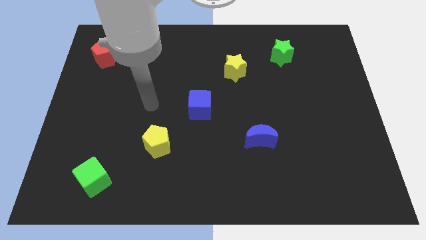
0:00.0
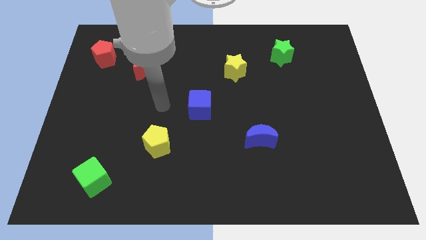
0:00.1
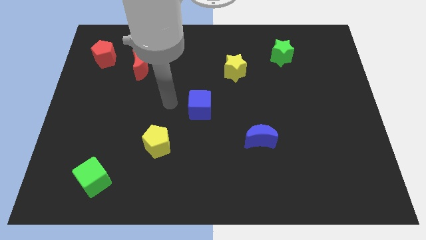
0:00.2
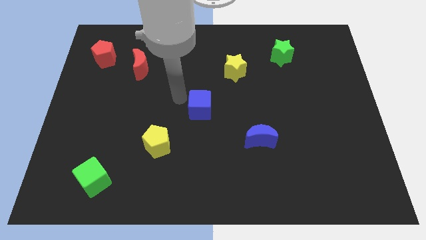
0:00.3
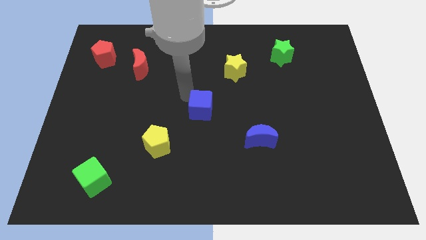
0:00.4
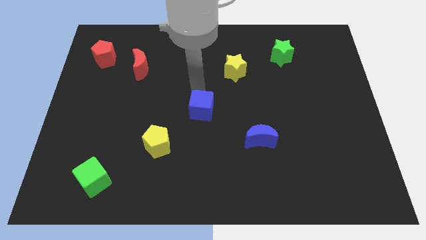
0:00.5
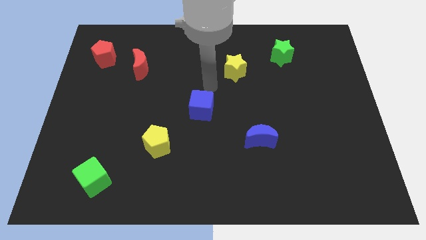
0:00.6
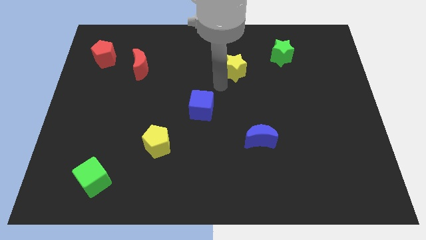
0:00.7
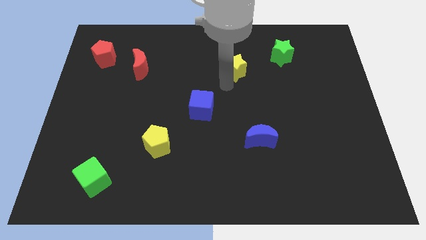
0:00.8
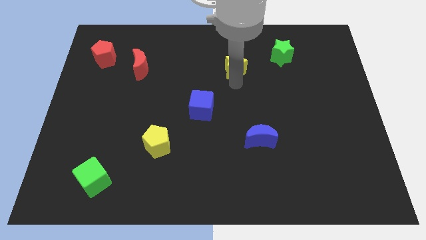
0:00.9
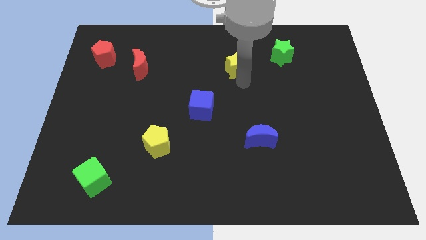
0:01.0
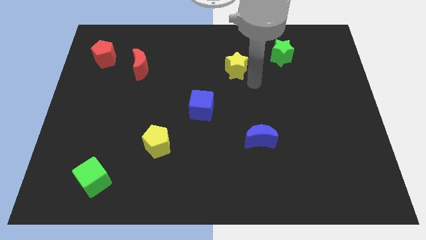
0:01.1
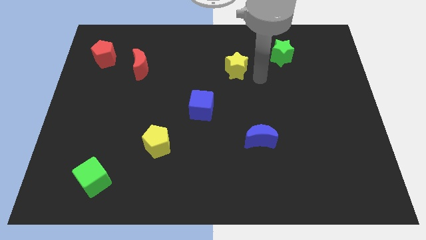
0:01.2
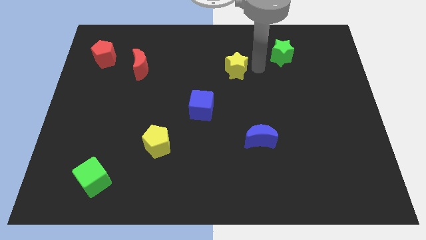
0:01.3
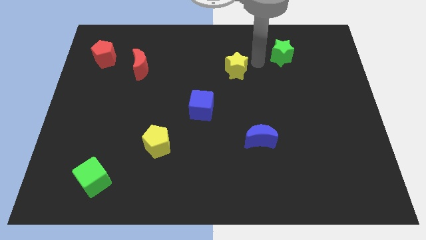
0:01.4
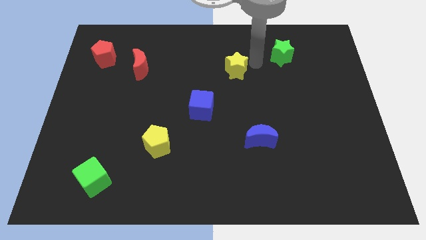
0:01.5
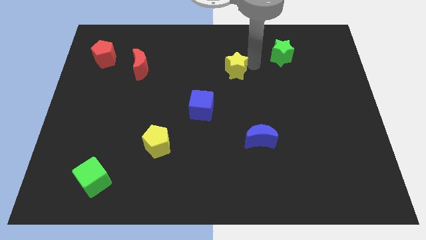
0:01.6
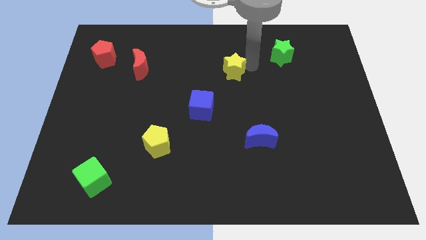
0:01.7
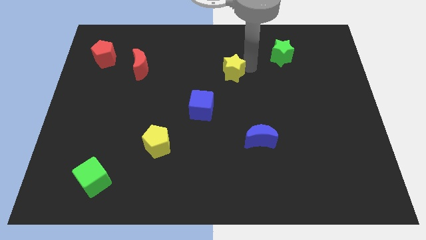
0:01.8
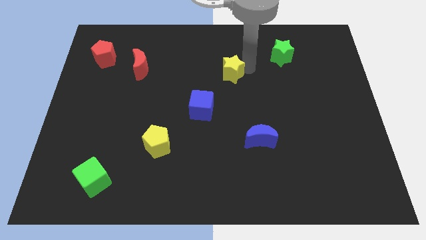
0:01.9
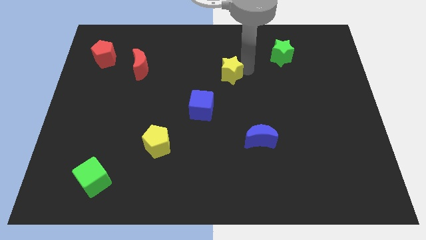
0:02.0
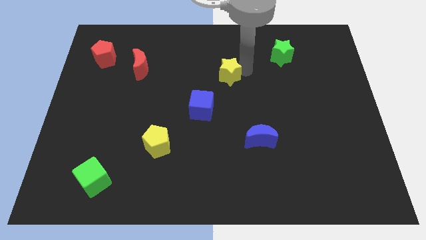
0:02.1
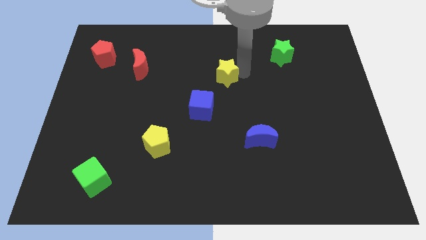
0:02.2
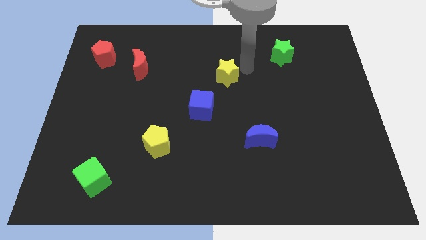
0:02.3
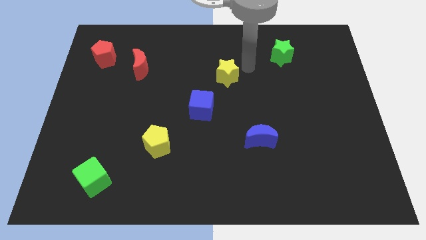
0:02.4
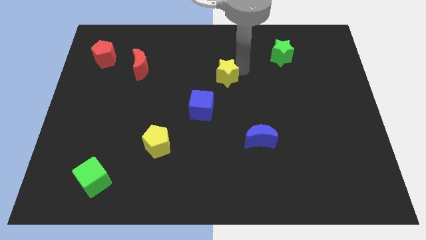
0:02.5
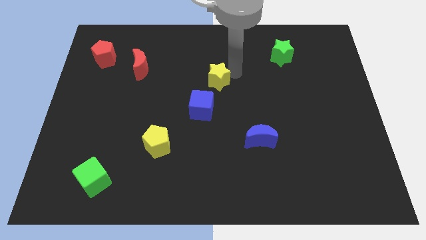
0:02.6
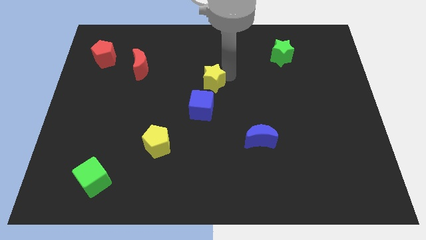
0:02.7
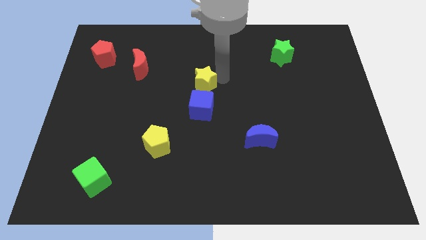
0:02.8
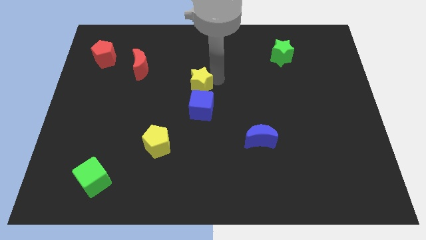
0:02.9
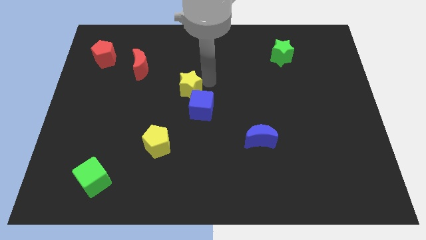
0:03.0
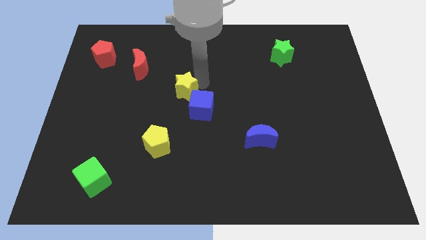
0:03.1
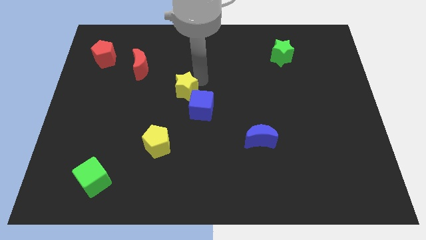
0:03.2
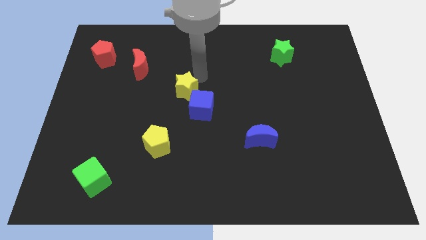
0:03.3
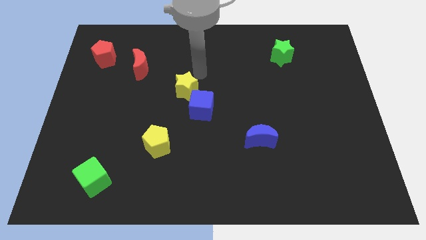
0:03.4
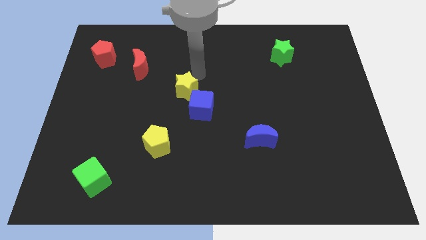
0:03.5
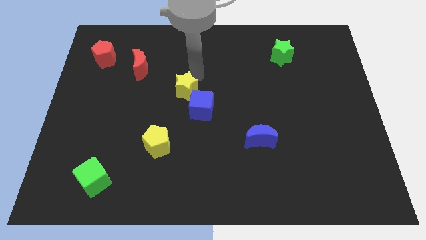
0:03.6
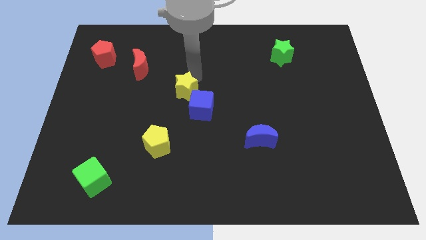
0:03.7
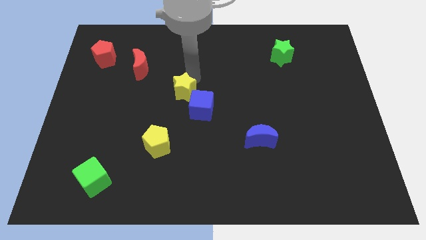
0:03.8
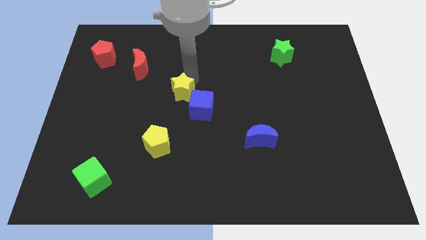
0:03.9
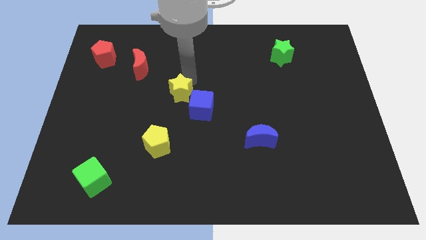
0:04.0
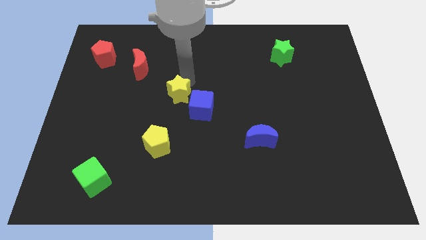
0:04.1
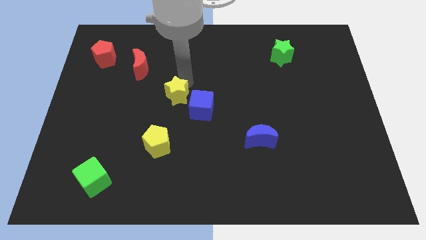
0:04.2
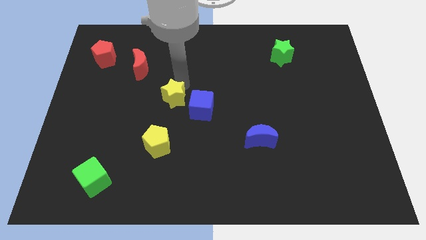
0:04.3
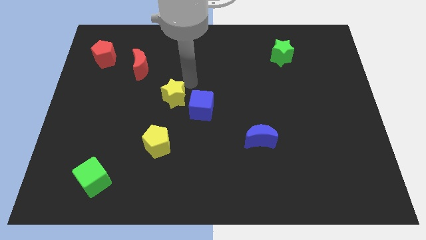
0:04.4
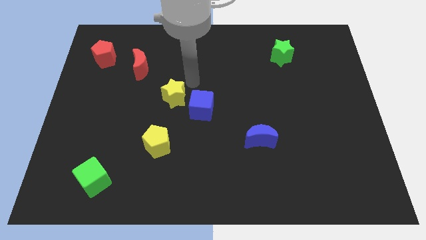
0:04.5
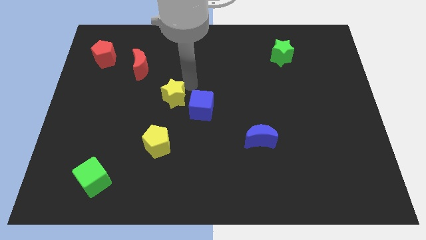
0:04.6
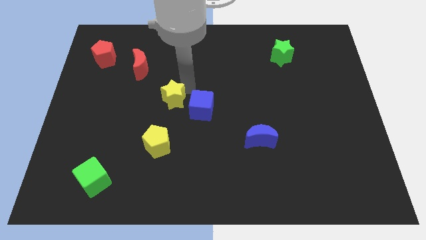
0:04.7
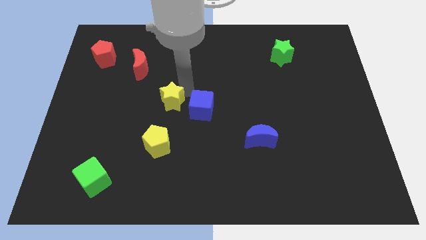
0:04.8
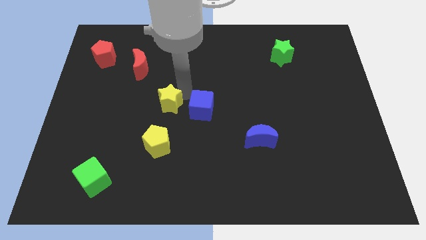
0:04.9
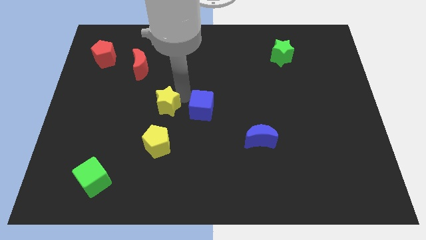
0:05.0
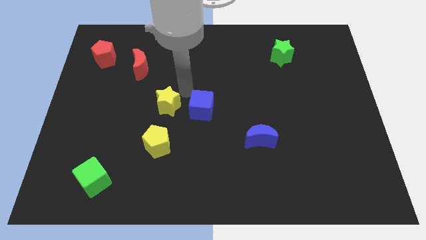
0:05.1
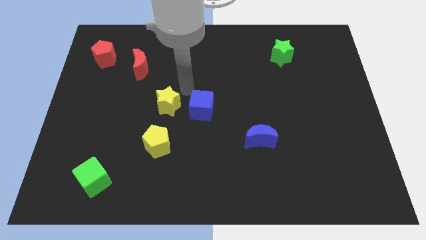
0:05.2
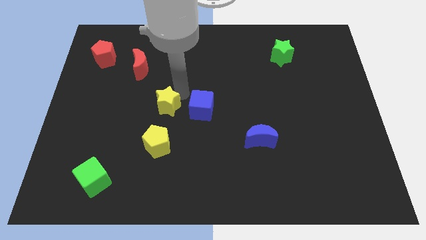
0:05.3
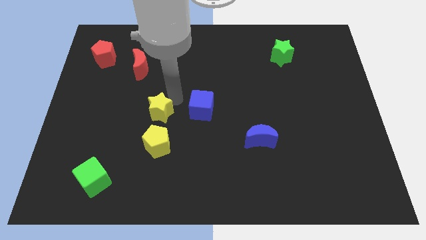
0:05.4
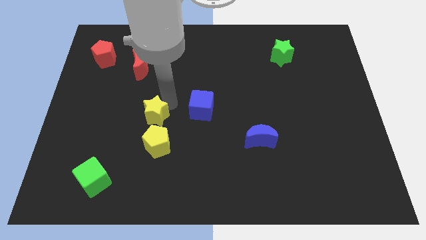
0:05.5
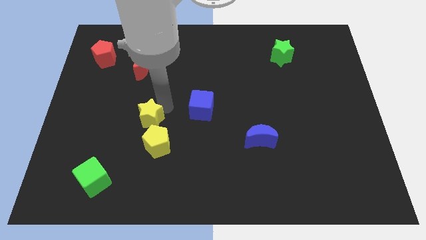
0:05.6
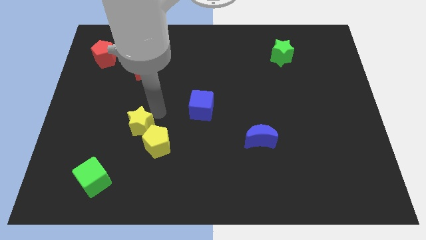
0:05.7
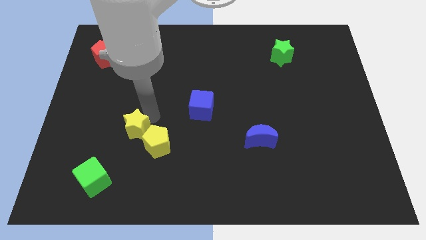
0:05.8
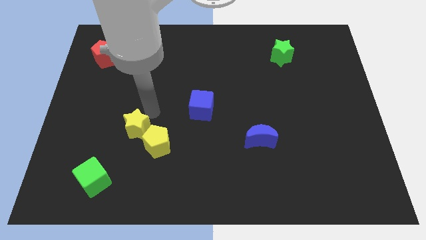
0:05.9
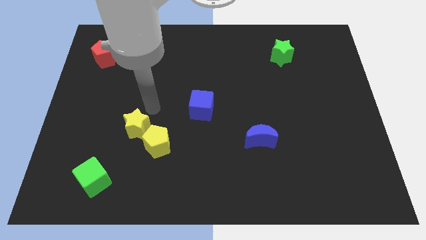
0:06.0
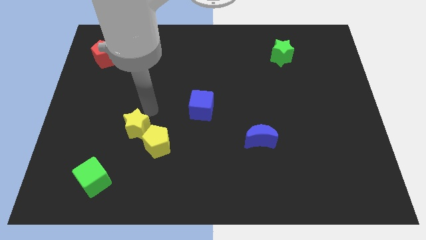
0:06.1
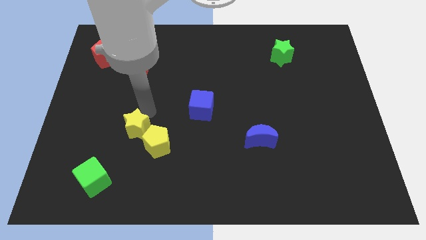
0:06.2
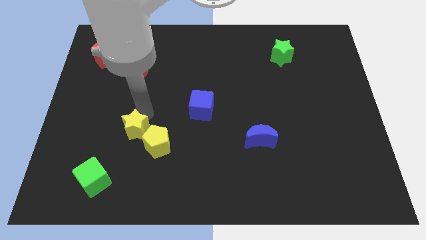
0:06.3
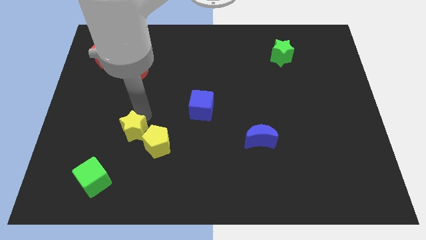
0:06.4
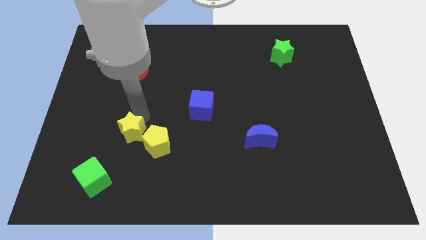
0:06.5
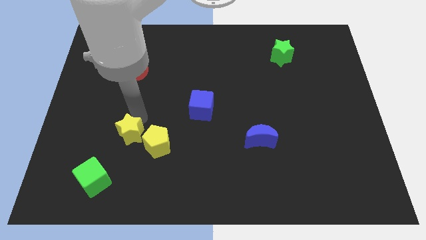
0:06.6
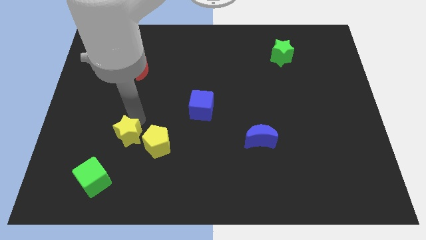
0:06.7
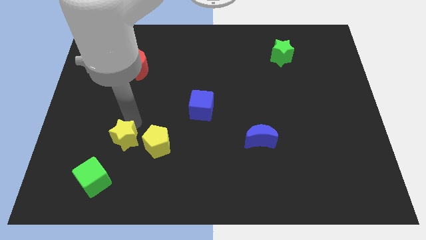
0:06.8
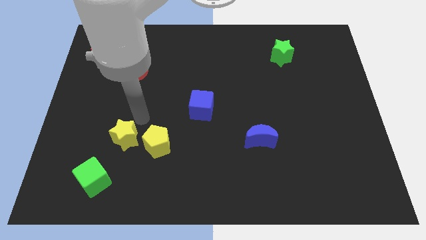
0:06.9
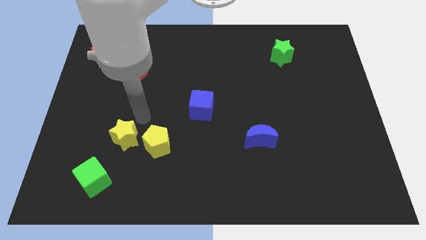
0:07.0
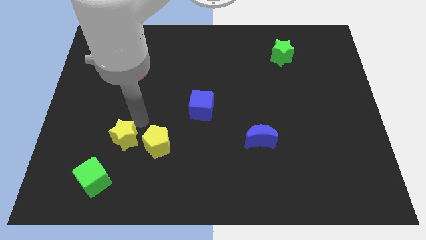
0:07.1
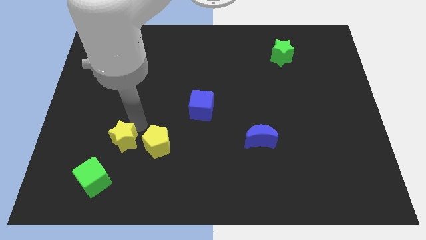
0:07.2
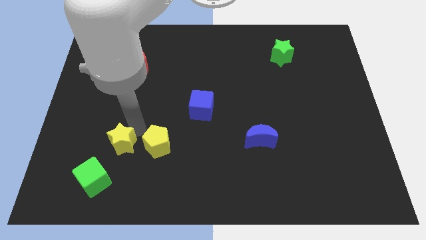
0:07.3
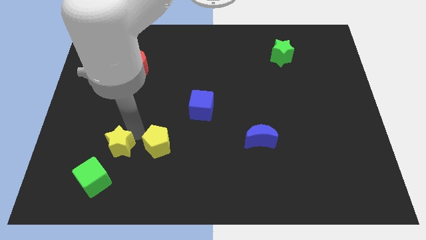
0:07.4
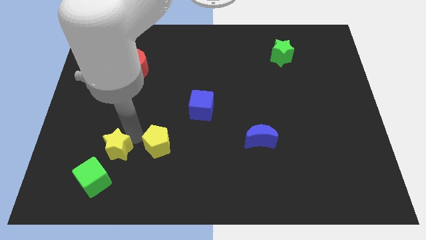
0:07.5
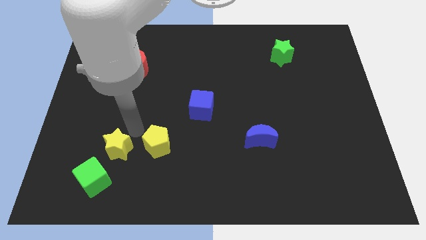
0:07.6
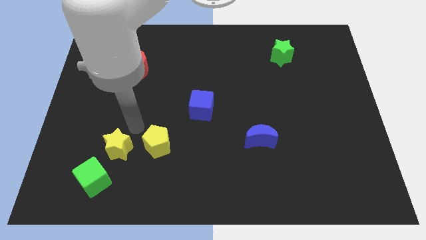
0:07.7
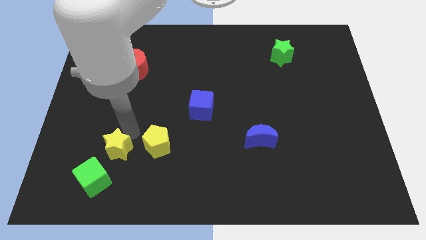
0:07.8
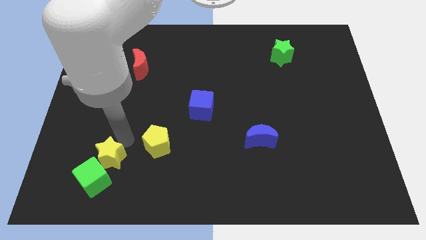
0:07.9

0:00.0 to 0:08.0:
slide the yellow star towards the green cube
